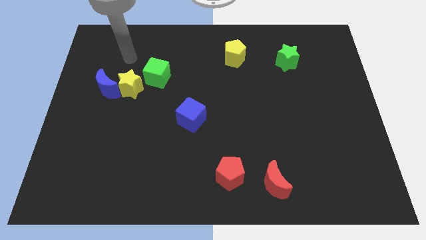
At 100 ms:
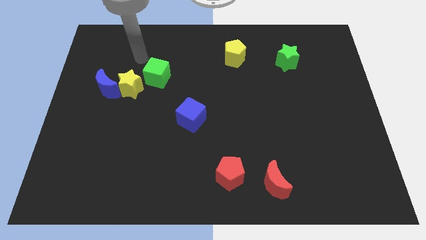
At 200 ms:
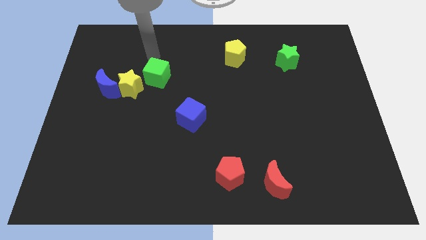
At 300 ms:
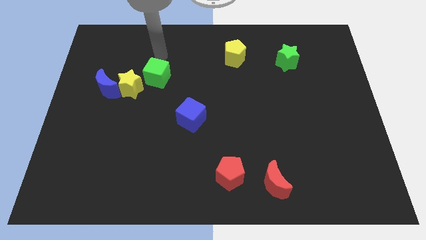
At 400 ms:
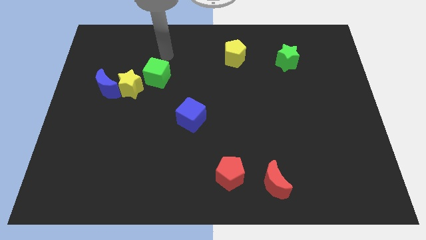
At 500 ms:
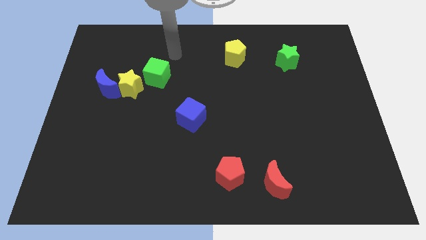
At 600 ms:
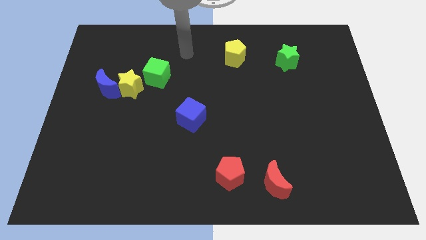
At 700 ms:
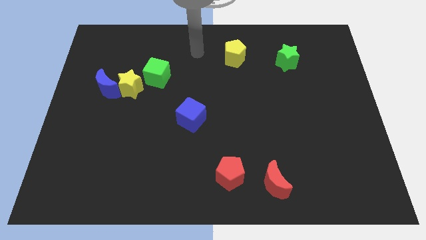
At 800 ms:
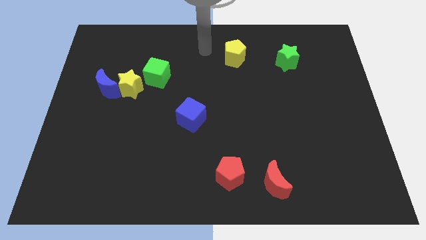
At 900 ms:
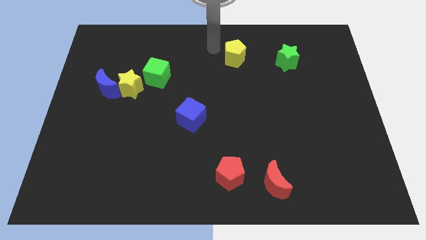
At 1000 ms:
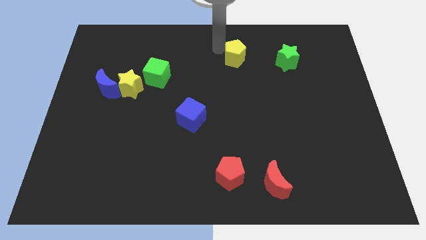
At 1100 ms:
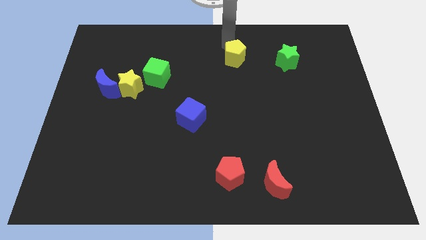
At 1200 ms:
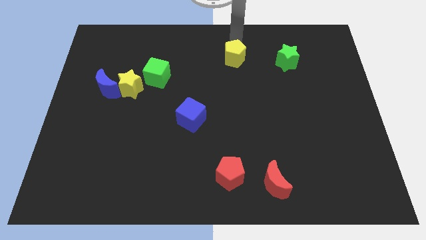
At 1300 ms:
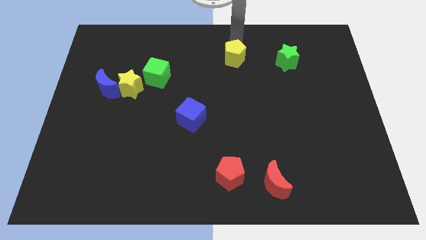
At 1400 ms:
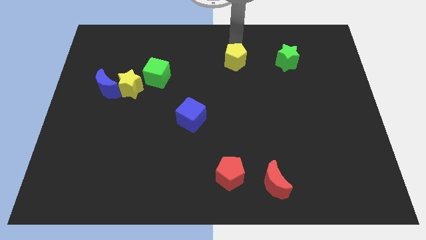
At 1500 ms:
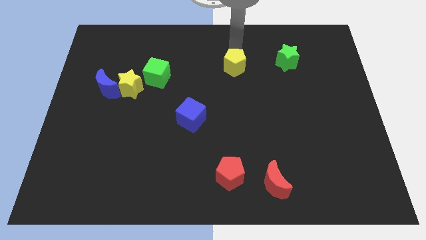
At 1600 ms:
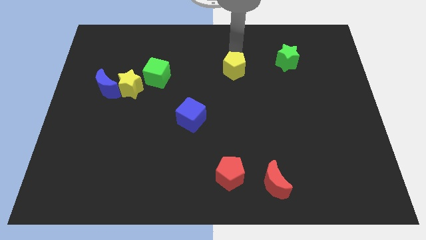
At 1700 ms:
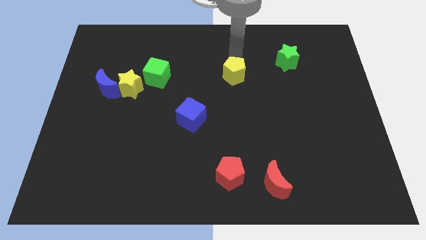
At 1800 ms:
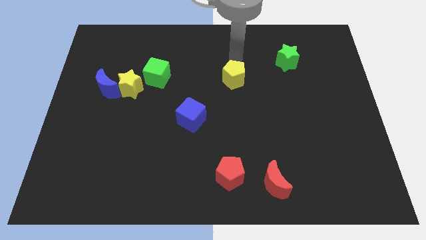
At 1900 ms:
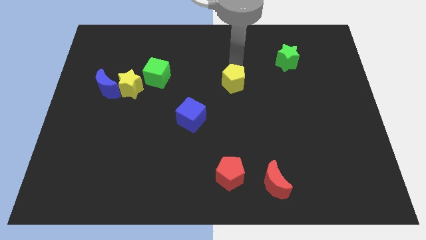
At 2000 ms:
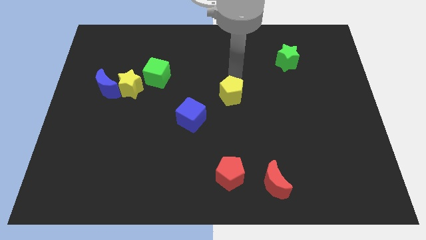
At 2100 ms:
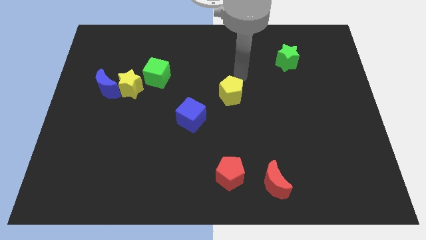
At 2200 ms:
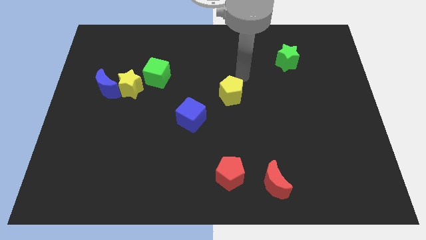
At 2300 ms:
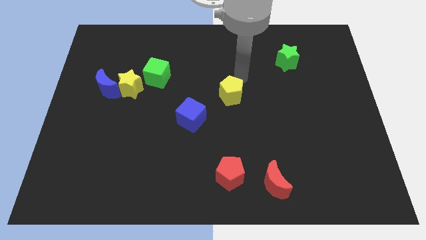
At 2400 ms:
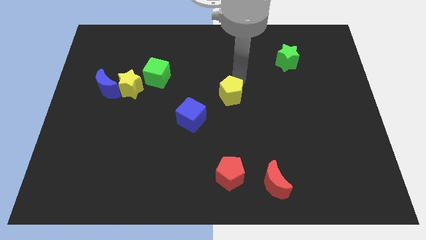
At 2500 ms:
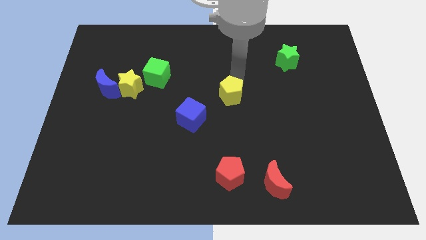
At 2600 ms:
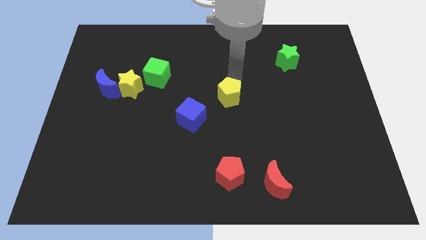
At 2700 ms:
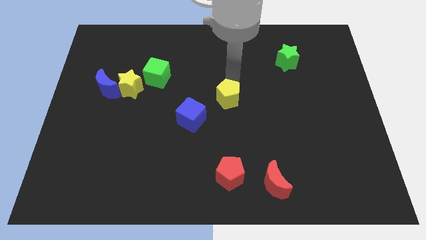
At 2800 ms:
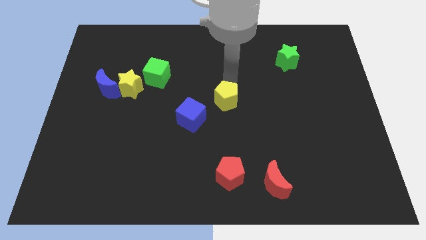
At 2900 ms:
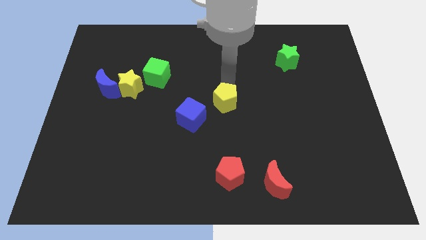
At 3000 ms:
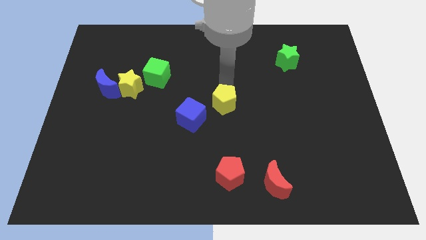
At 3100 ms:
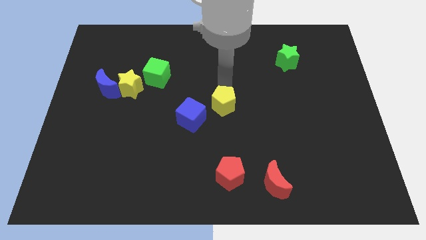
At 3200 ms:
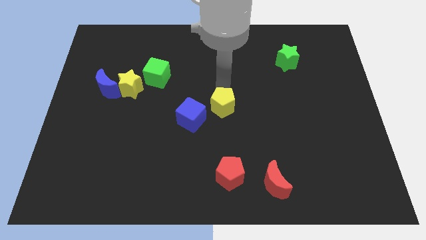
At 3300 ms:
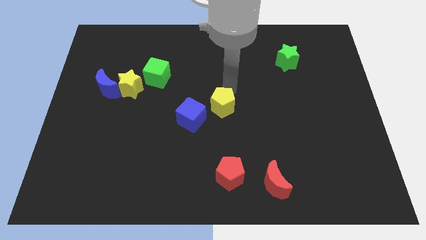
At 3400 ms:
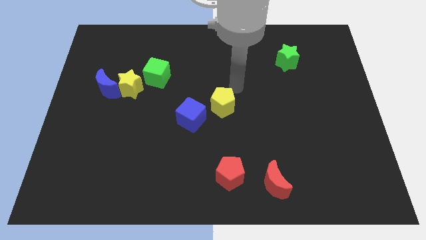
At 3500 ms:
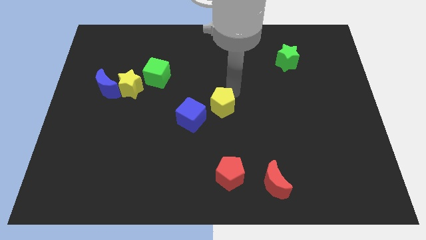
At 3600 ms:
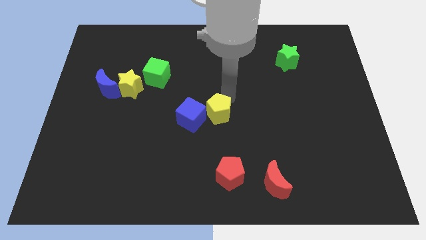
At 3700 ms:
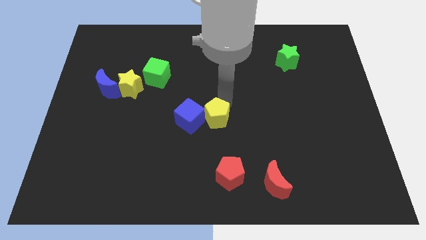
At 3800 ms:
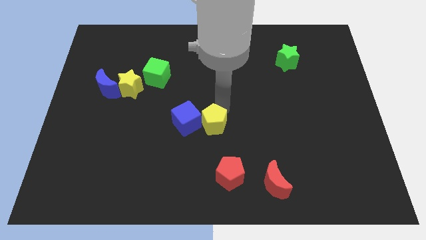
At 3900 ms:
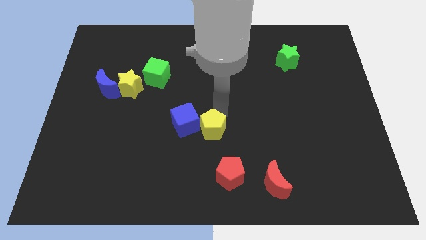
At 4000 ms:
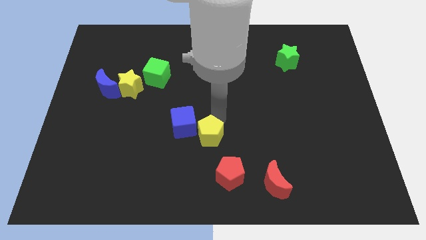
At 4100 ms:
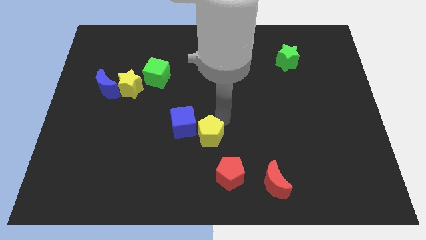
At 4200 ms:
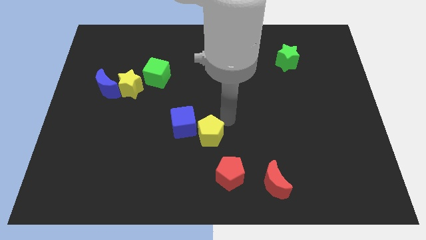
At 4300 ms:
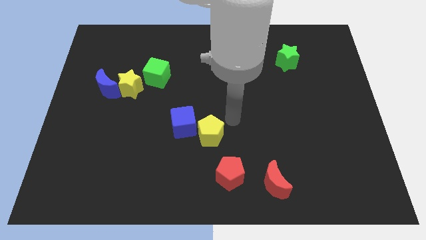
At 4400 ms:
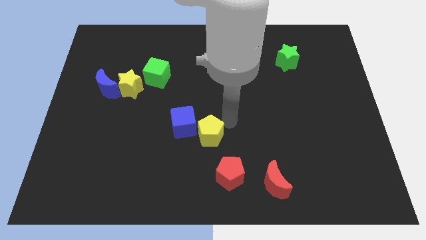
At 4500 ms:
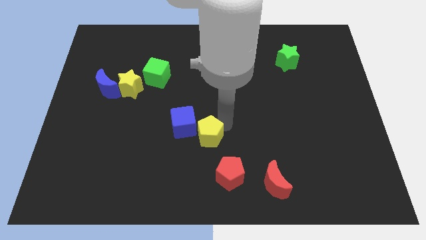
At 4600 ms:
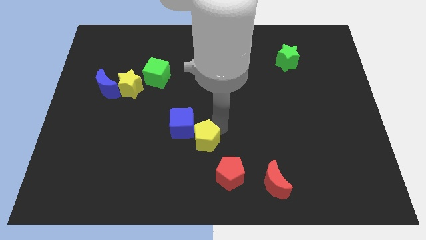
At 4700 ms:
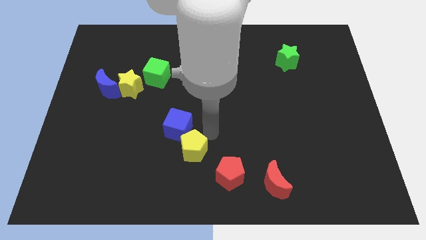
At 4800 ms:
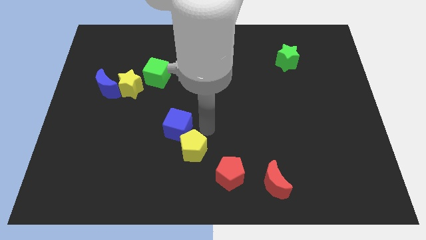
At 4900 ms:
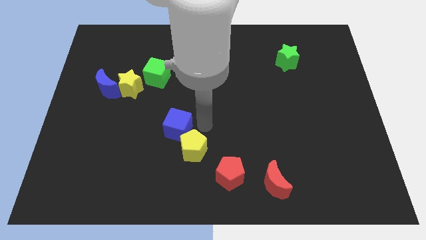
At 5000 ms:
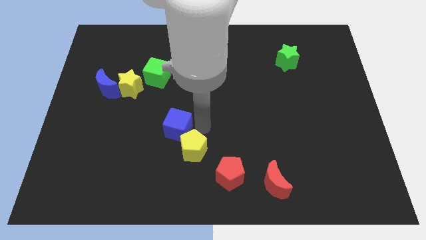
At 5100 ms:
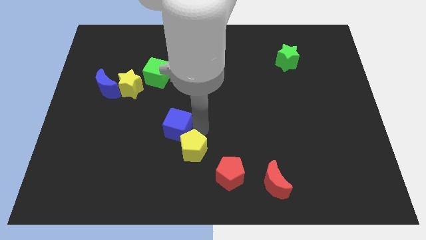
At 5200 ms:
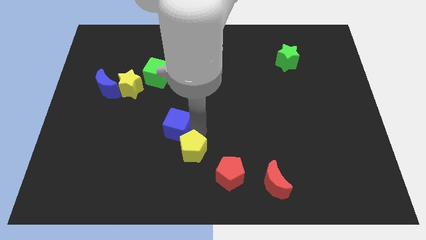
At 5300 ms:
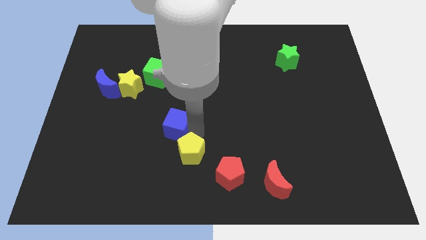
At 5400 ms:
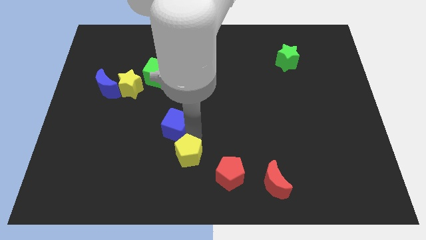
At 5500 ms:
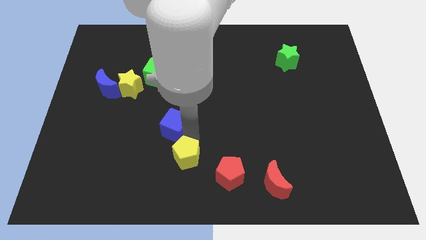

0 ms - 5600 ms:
move the yellow pentagon left of the red pentagon

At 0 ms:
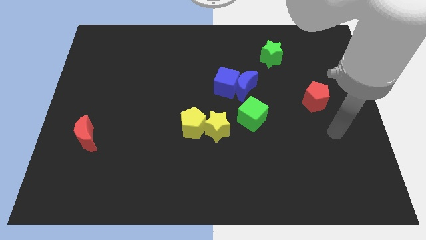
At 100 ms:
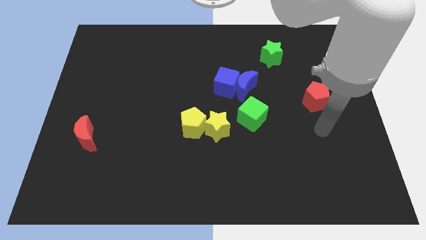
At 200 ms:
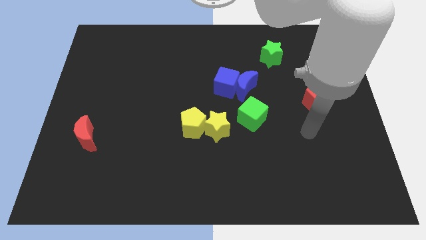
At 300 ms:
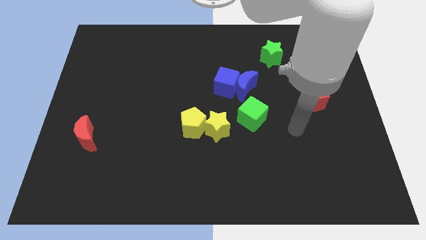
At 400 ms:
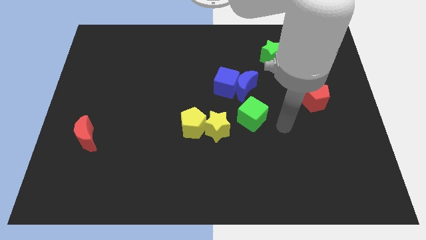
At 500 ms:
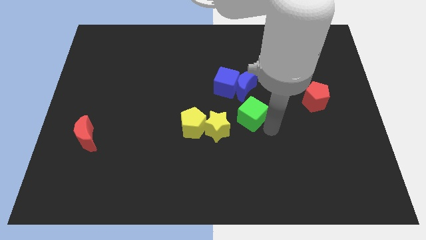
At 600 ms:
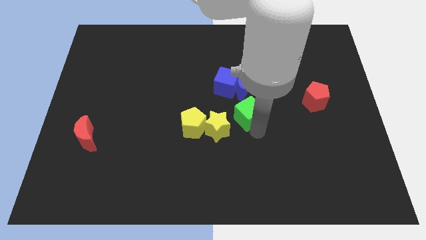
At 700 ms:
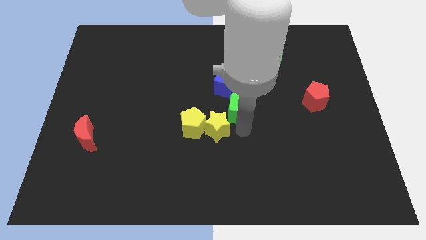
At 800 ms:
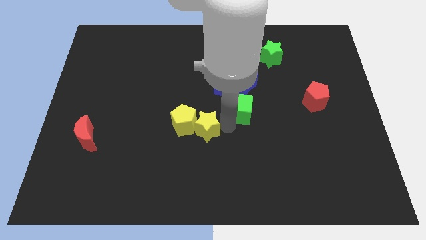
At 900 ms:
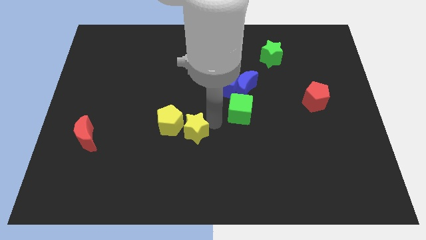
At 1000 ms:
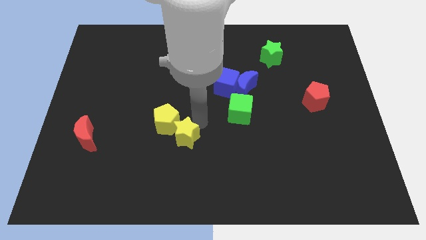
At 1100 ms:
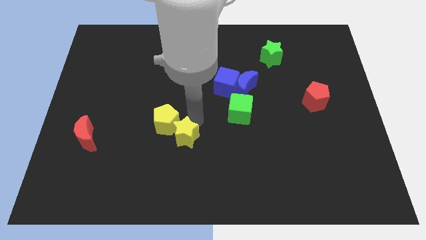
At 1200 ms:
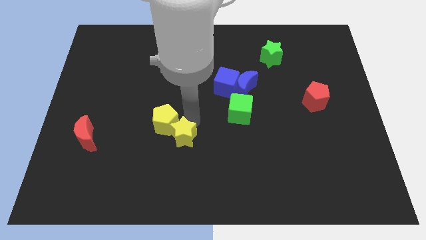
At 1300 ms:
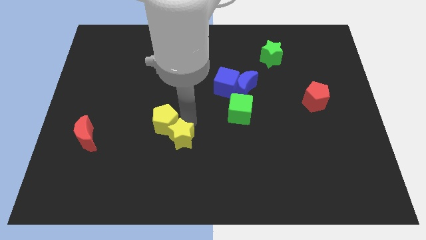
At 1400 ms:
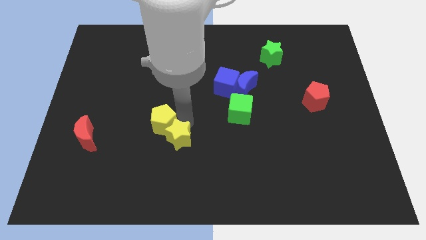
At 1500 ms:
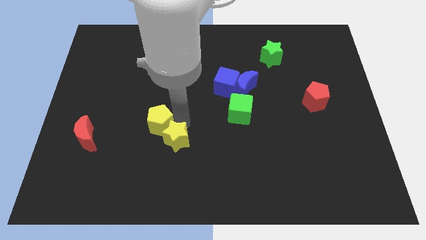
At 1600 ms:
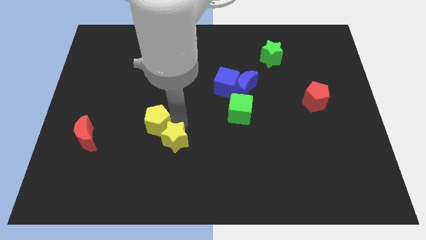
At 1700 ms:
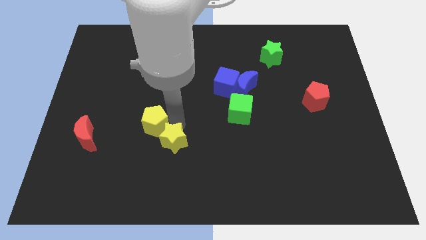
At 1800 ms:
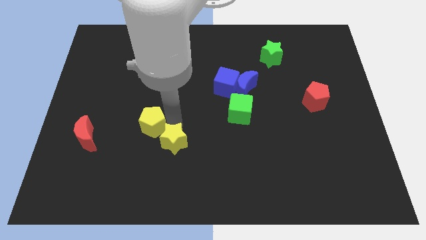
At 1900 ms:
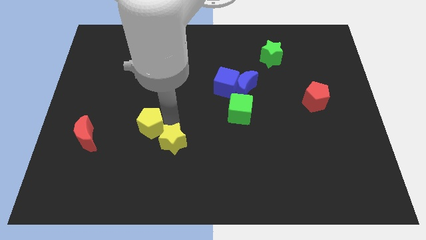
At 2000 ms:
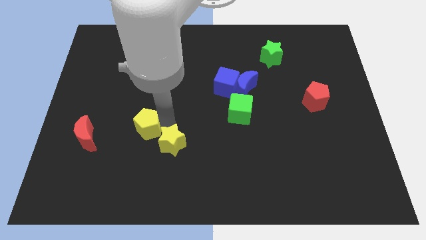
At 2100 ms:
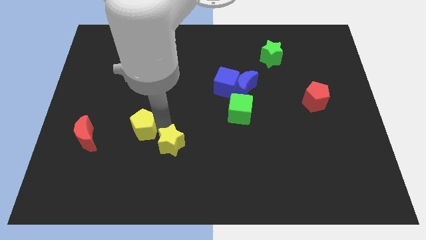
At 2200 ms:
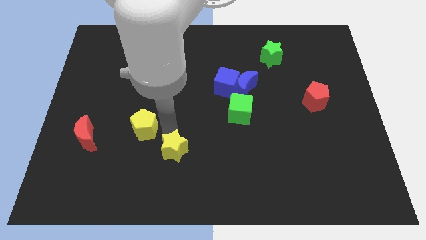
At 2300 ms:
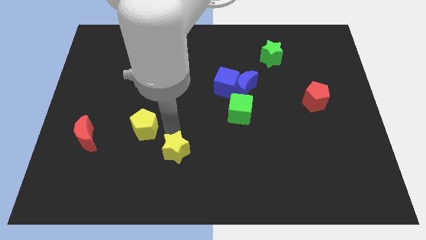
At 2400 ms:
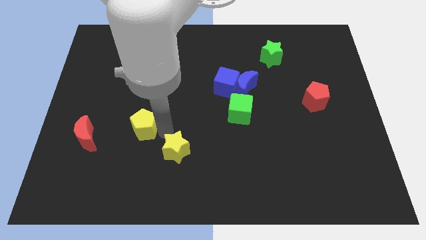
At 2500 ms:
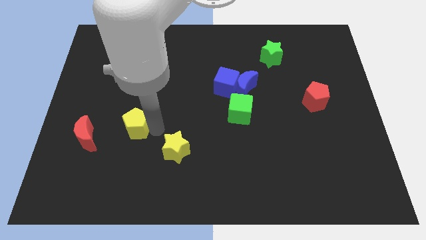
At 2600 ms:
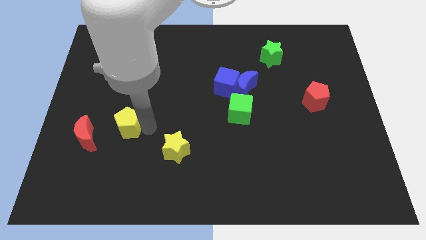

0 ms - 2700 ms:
slide the yellow pentagon to the top right of the red moon
